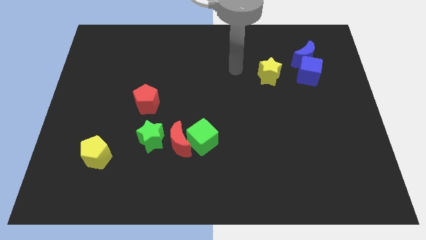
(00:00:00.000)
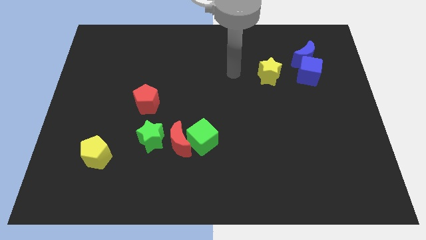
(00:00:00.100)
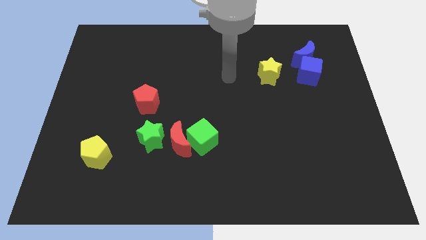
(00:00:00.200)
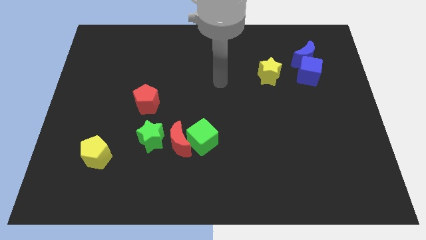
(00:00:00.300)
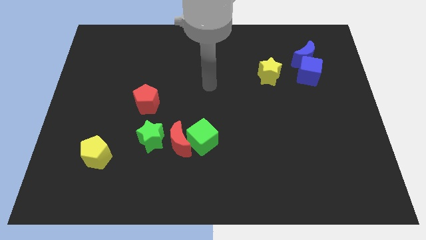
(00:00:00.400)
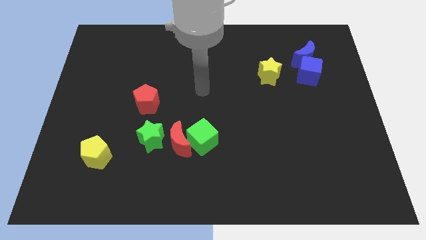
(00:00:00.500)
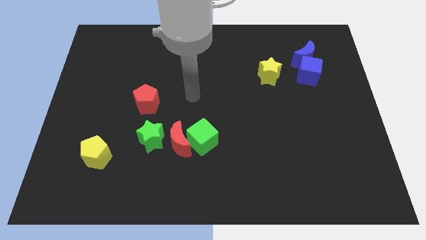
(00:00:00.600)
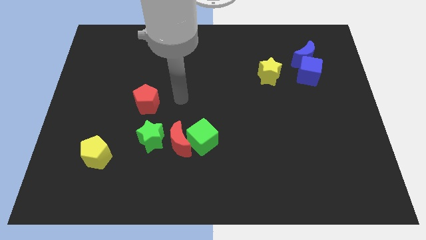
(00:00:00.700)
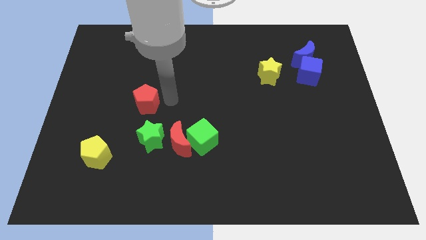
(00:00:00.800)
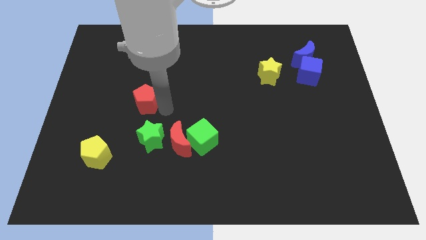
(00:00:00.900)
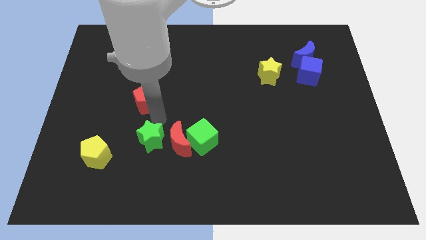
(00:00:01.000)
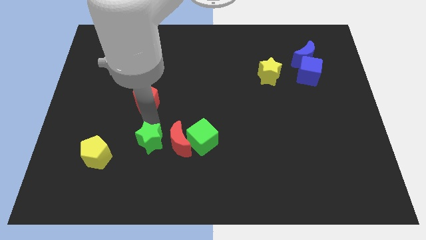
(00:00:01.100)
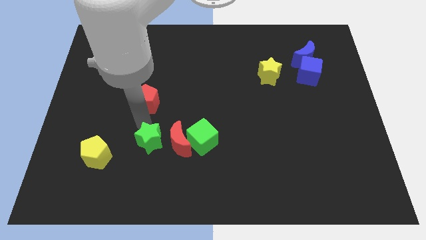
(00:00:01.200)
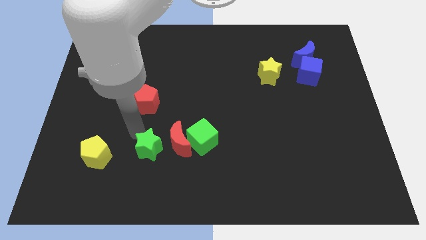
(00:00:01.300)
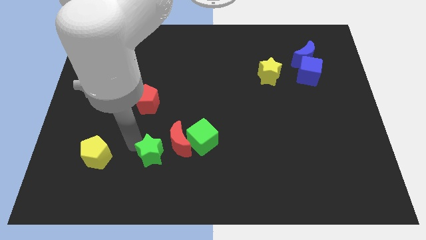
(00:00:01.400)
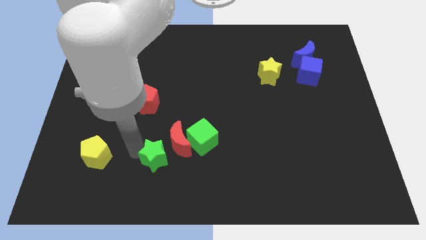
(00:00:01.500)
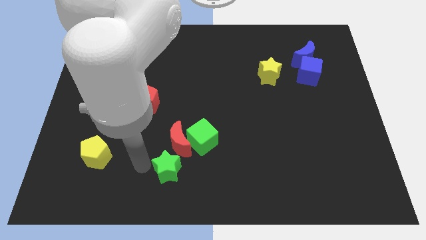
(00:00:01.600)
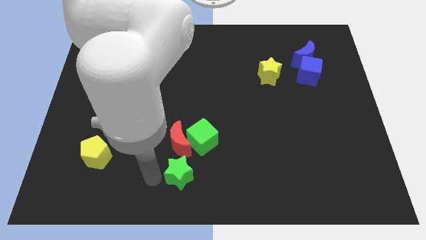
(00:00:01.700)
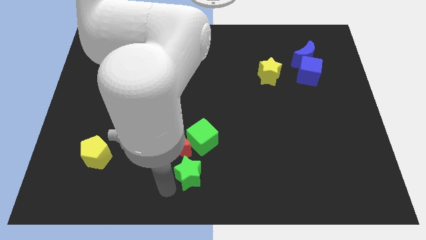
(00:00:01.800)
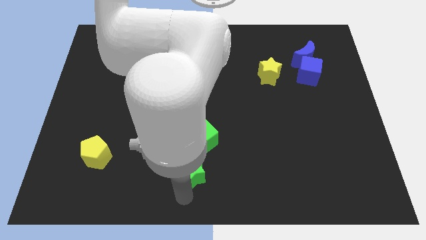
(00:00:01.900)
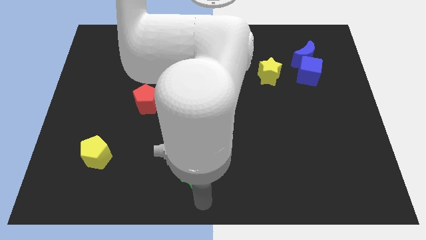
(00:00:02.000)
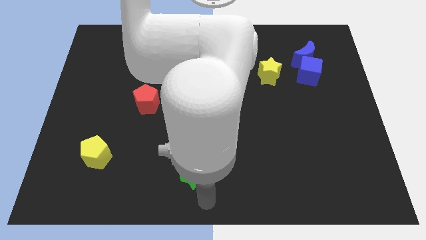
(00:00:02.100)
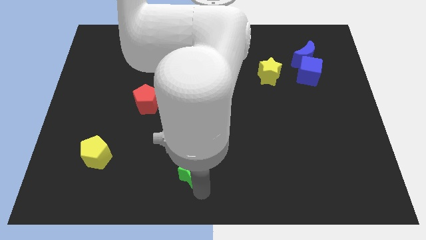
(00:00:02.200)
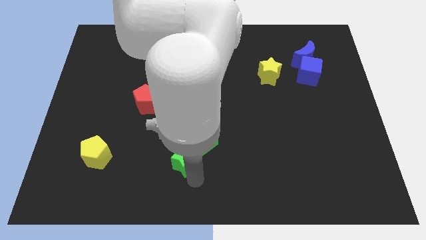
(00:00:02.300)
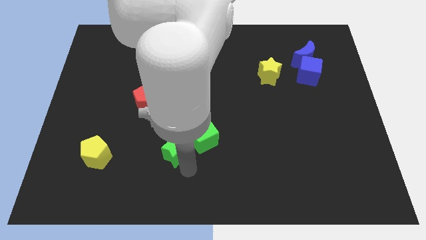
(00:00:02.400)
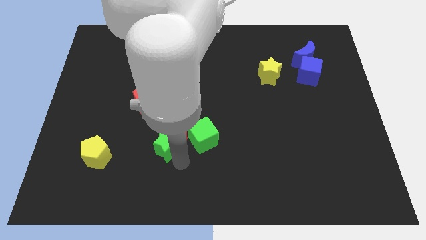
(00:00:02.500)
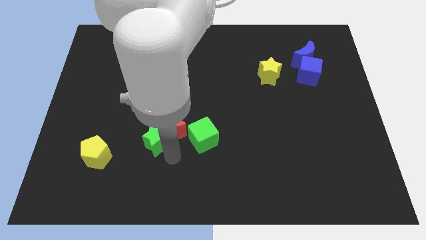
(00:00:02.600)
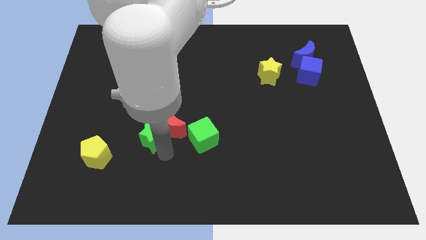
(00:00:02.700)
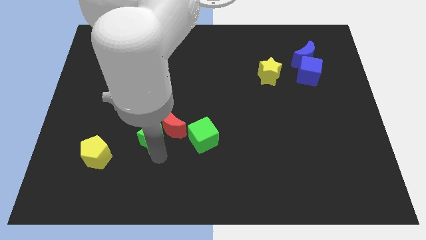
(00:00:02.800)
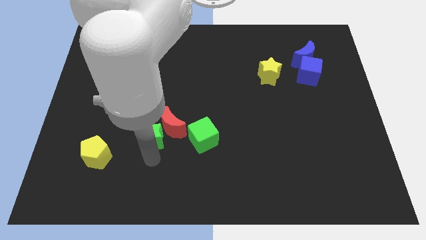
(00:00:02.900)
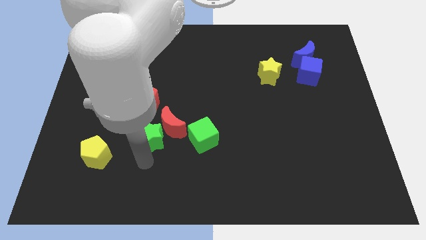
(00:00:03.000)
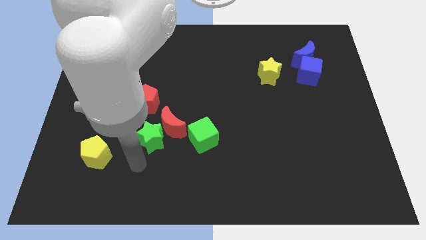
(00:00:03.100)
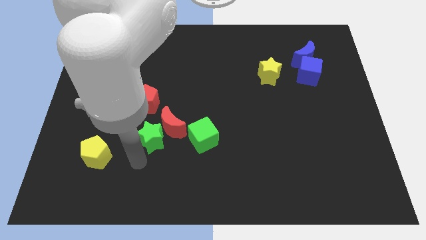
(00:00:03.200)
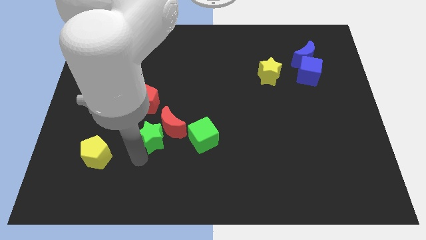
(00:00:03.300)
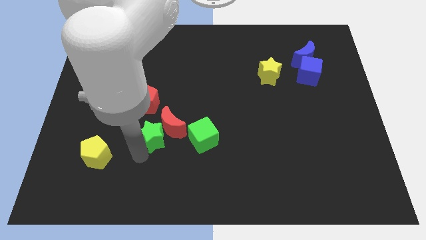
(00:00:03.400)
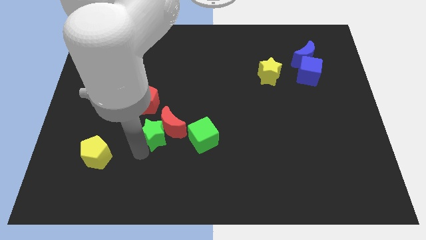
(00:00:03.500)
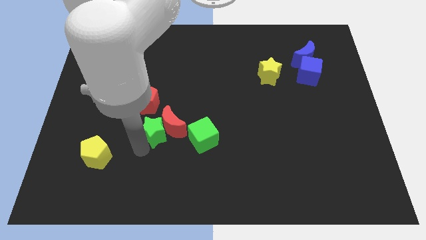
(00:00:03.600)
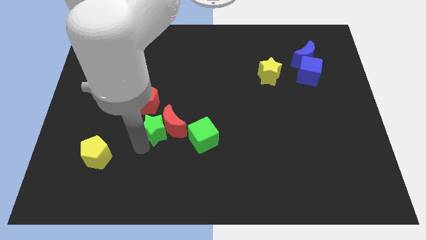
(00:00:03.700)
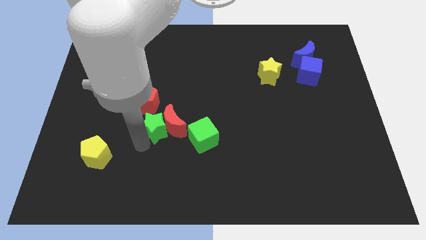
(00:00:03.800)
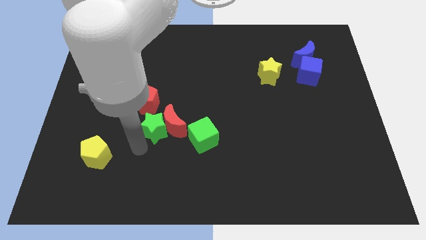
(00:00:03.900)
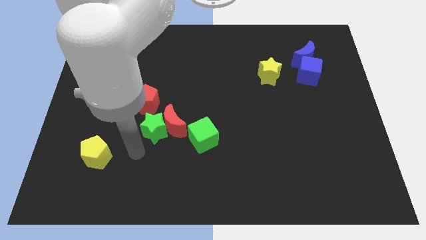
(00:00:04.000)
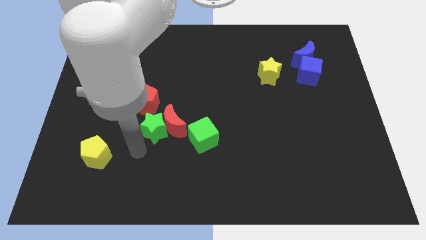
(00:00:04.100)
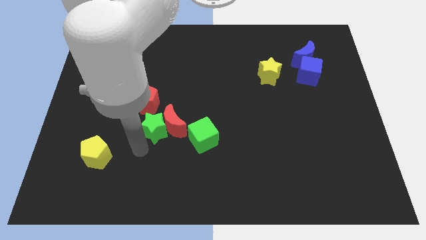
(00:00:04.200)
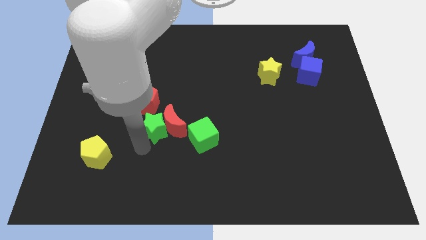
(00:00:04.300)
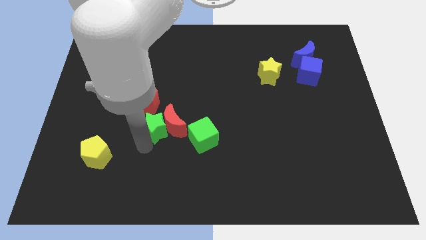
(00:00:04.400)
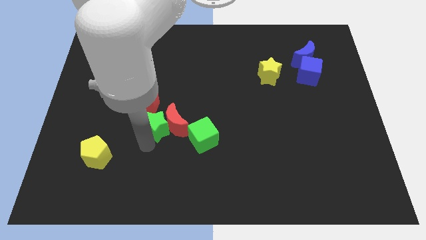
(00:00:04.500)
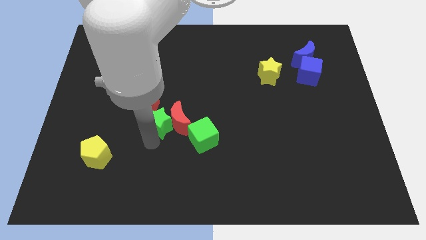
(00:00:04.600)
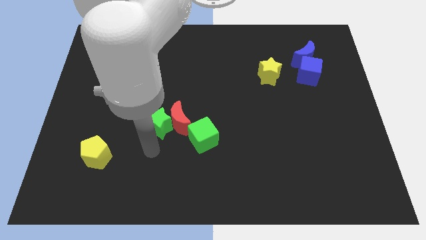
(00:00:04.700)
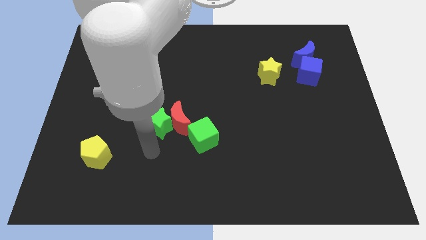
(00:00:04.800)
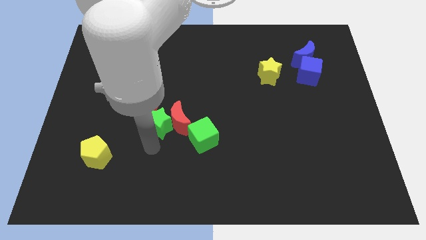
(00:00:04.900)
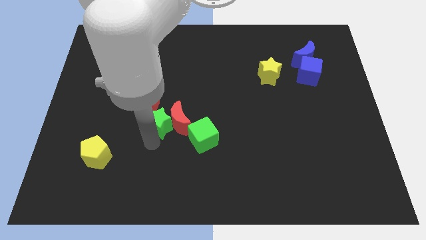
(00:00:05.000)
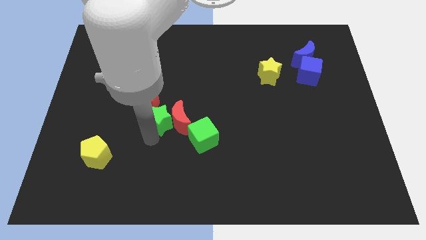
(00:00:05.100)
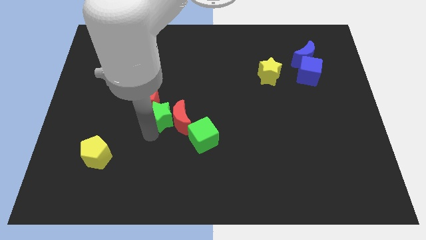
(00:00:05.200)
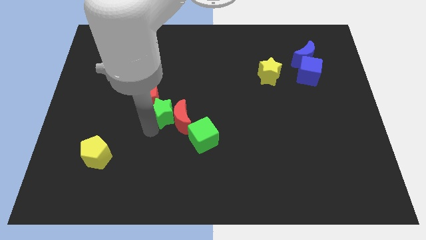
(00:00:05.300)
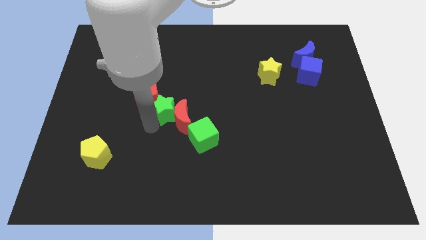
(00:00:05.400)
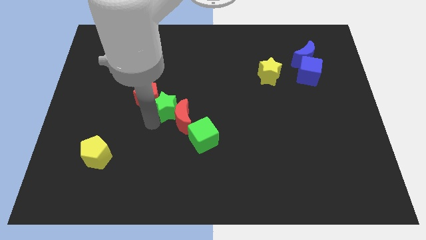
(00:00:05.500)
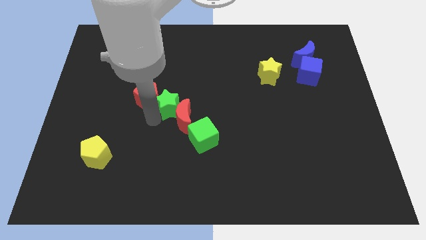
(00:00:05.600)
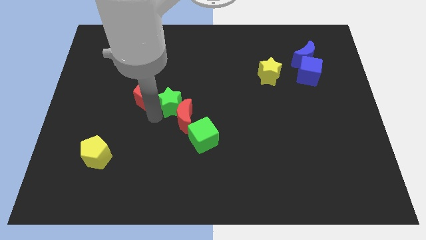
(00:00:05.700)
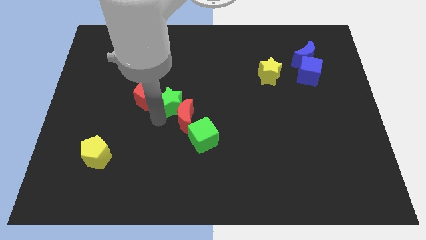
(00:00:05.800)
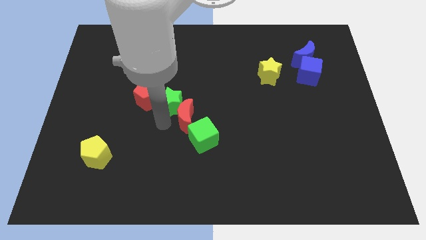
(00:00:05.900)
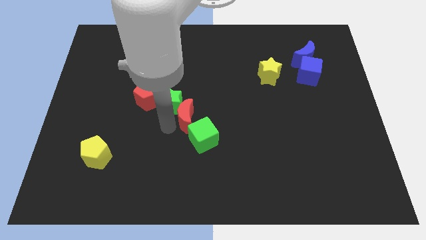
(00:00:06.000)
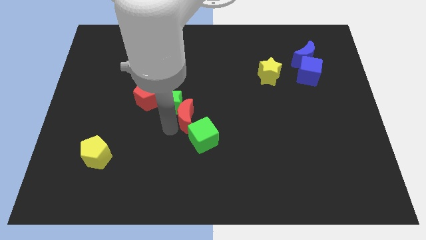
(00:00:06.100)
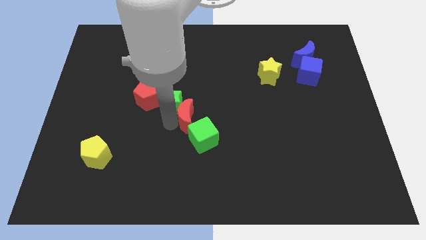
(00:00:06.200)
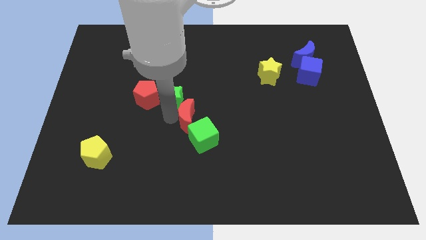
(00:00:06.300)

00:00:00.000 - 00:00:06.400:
put the green star to the top right of the red pentagon
